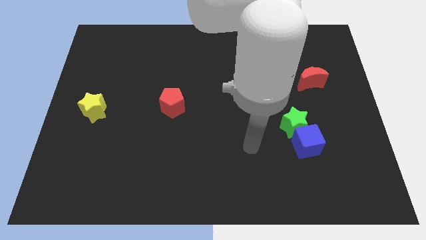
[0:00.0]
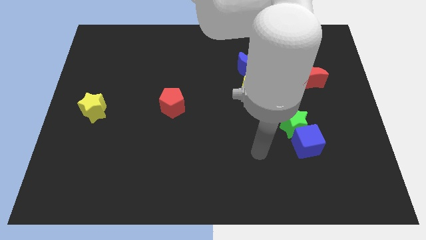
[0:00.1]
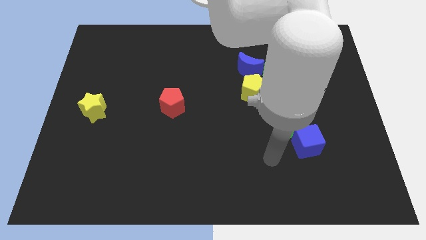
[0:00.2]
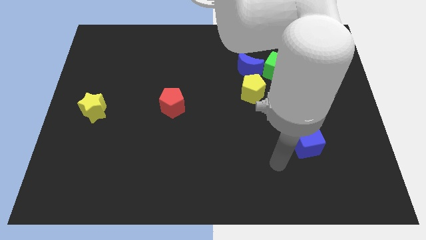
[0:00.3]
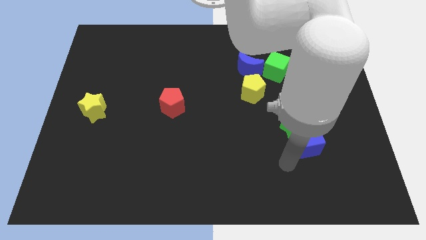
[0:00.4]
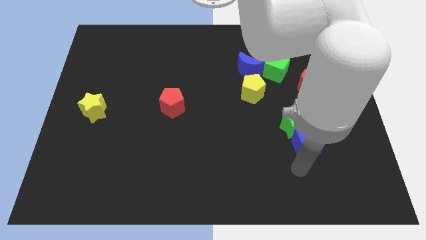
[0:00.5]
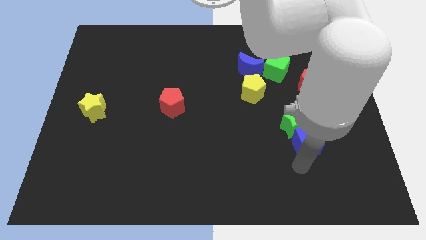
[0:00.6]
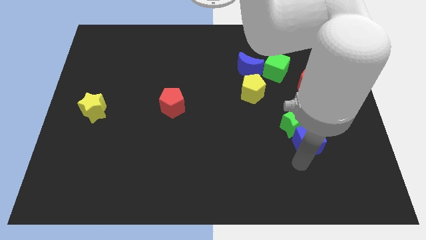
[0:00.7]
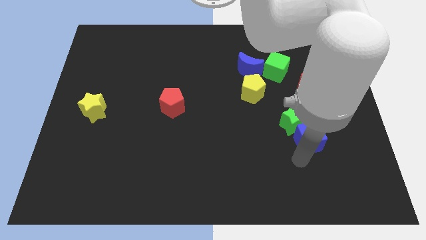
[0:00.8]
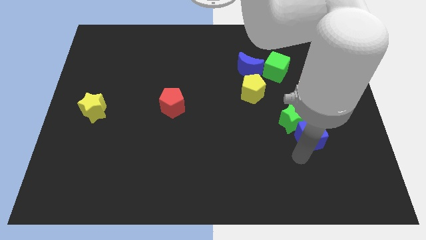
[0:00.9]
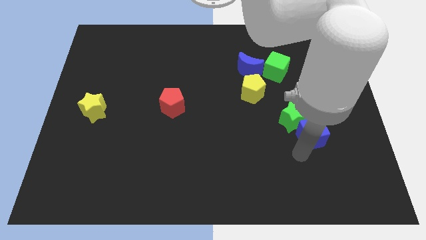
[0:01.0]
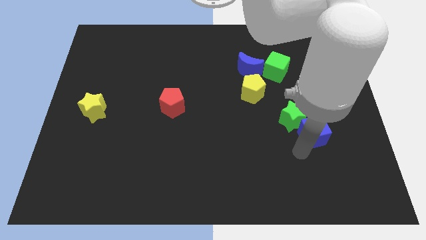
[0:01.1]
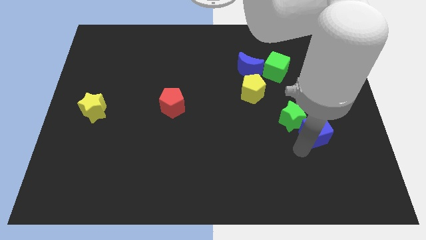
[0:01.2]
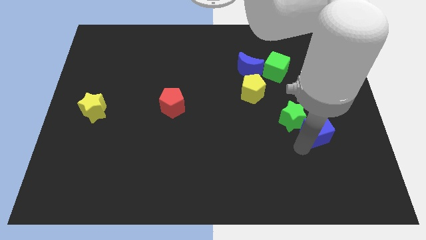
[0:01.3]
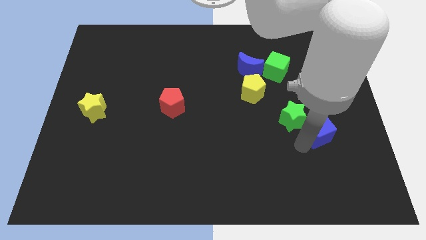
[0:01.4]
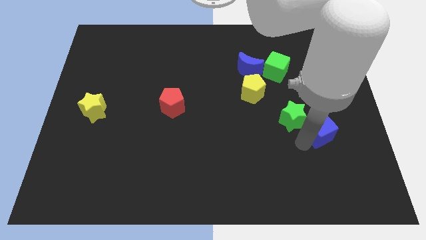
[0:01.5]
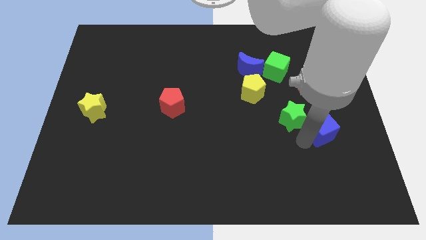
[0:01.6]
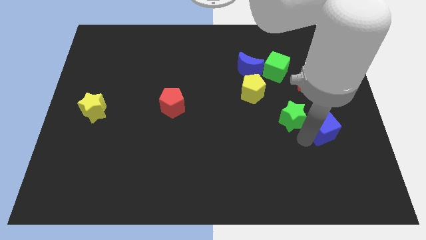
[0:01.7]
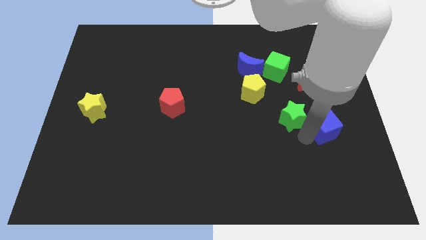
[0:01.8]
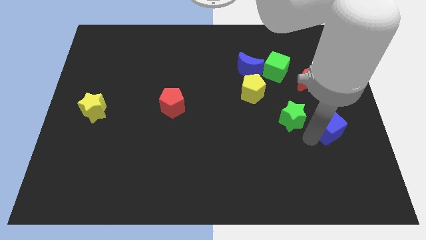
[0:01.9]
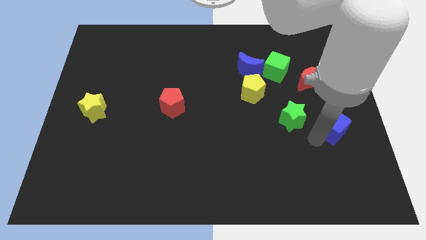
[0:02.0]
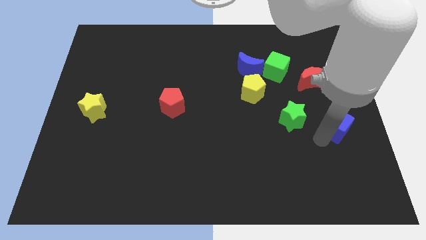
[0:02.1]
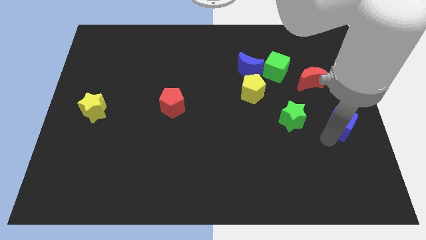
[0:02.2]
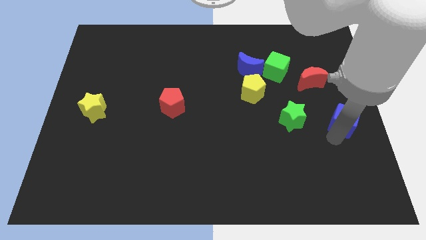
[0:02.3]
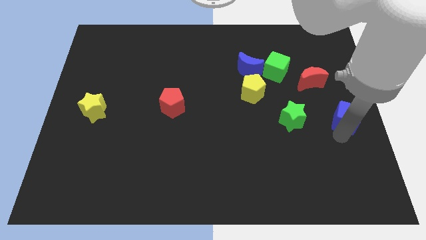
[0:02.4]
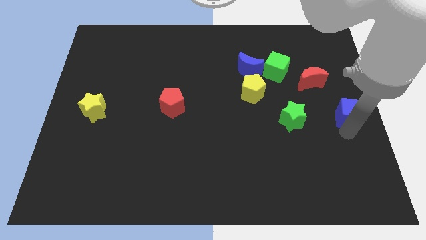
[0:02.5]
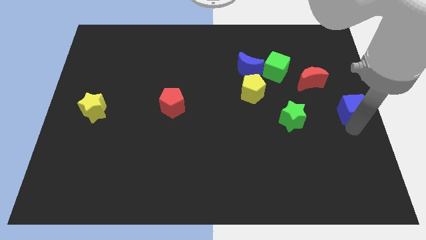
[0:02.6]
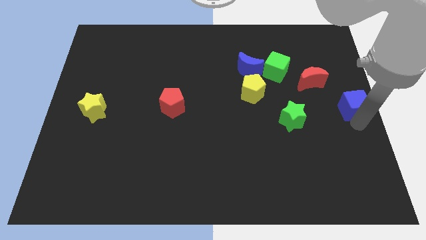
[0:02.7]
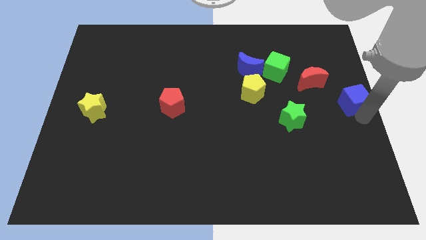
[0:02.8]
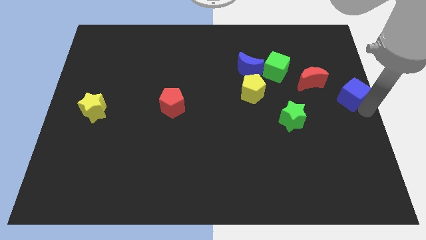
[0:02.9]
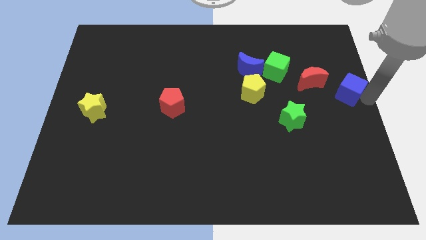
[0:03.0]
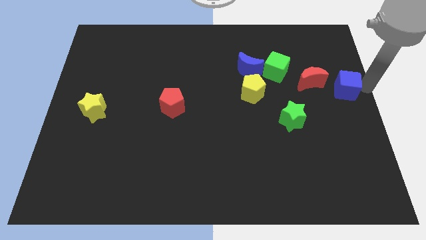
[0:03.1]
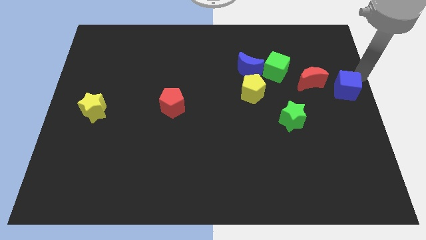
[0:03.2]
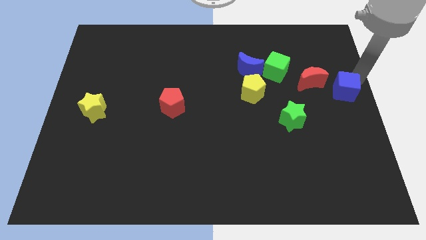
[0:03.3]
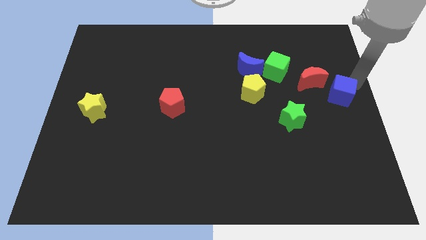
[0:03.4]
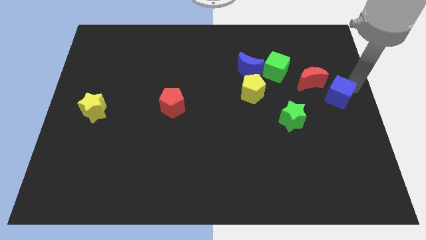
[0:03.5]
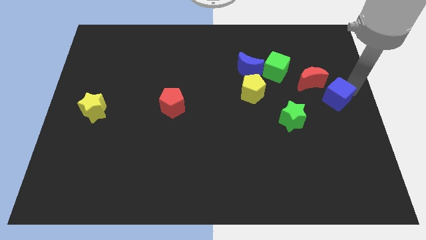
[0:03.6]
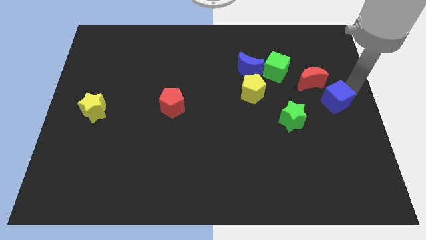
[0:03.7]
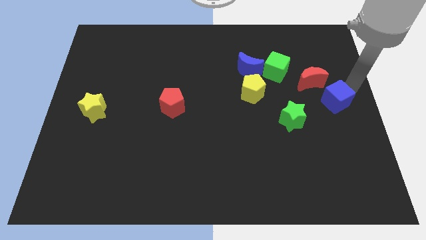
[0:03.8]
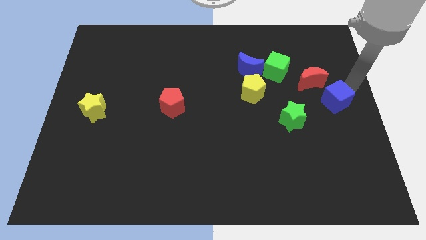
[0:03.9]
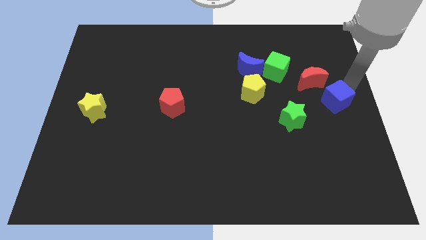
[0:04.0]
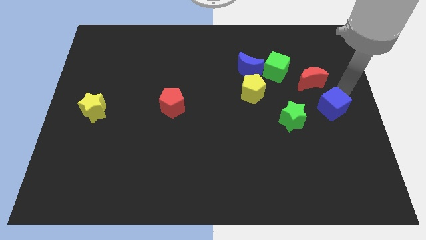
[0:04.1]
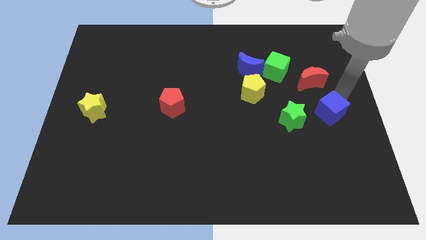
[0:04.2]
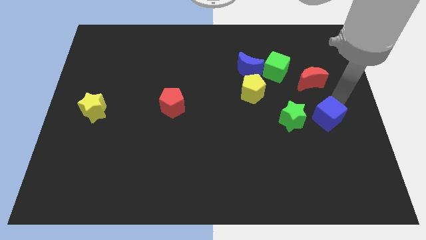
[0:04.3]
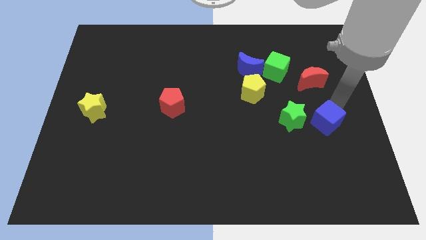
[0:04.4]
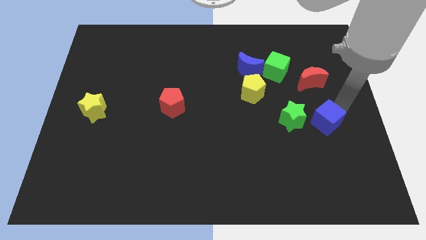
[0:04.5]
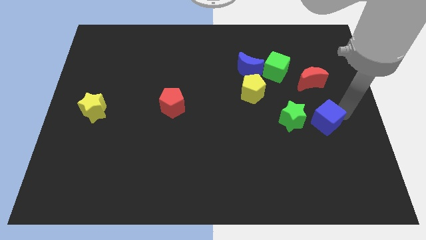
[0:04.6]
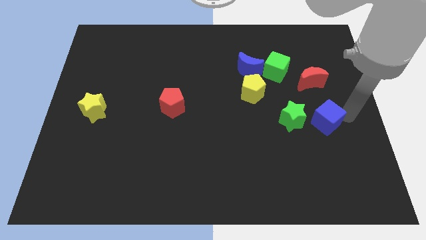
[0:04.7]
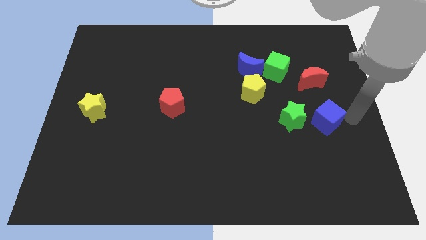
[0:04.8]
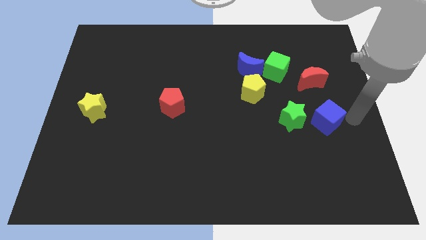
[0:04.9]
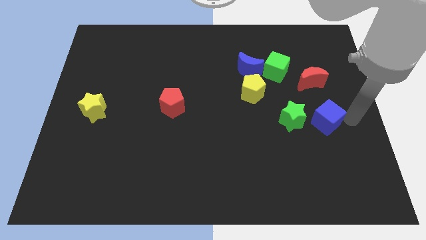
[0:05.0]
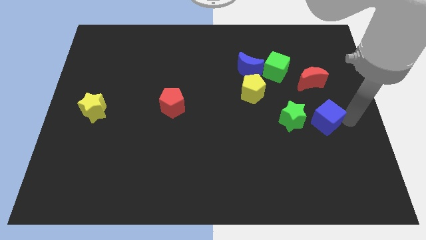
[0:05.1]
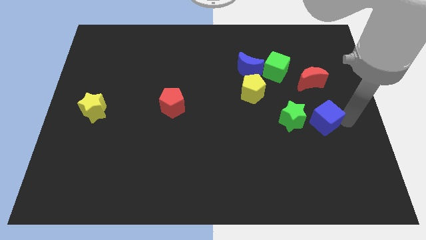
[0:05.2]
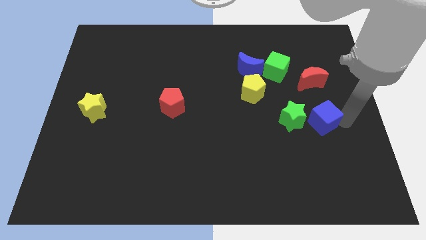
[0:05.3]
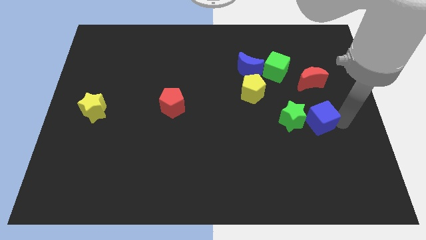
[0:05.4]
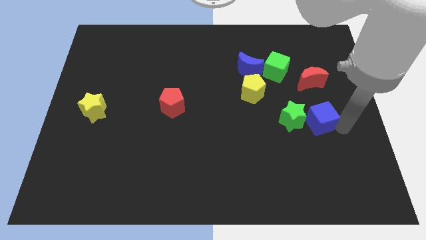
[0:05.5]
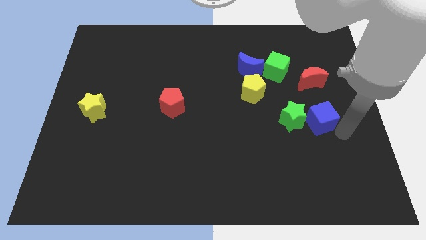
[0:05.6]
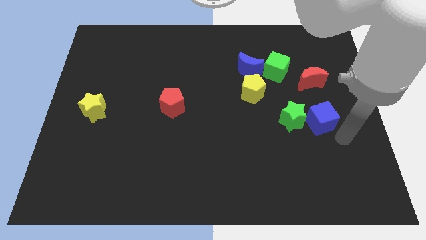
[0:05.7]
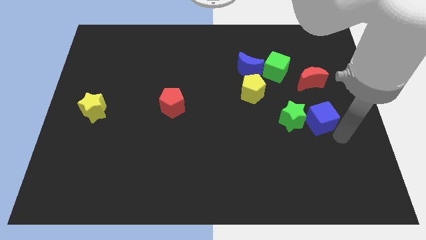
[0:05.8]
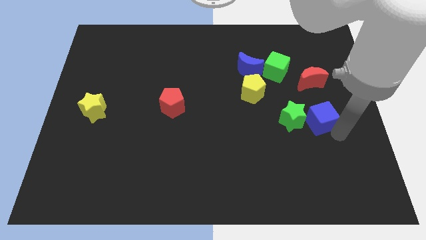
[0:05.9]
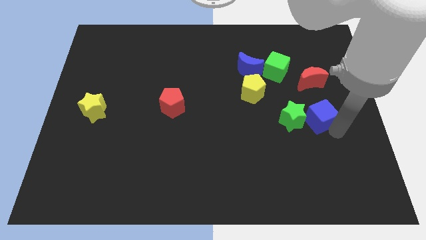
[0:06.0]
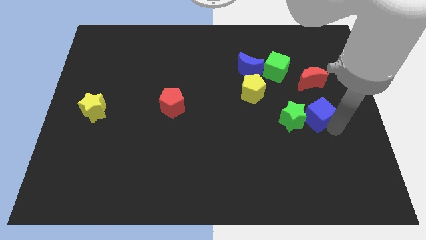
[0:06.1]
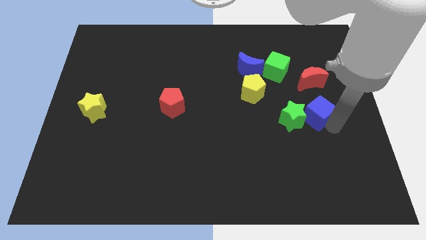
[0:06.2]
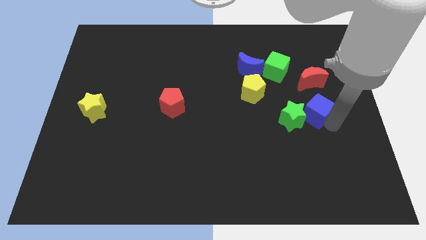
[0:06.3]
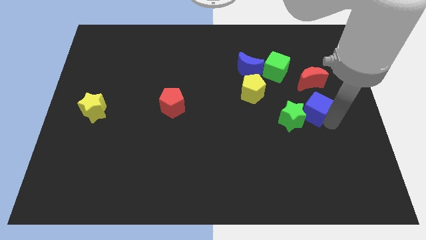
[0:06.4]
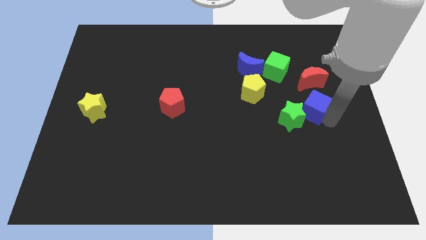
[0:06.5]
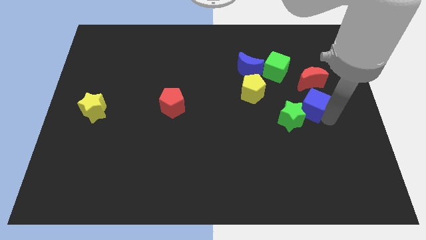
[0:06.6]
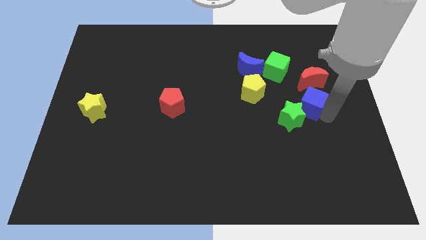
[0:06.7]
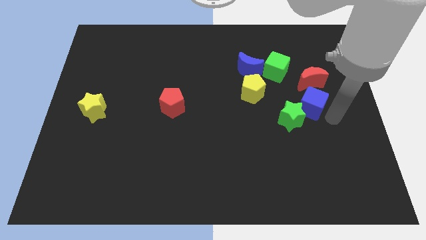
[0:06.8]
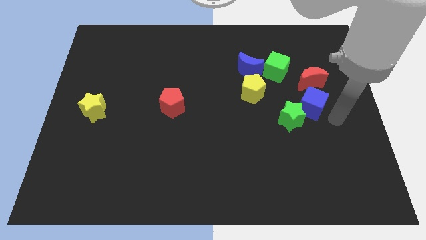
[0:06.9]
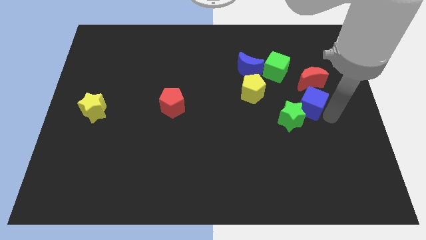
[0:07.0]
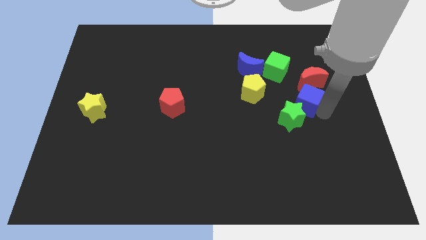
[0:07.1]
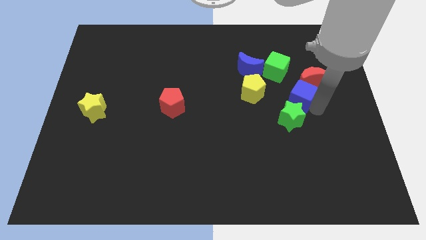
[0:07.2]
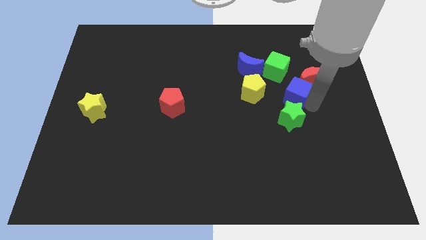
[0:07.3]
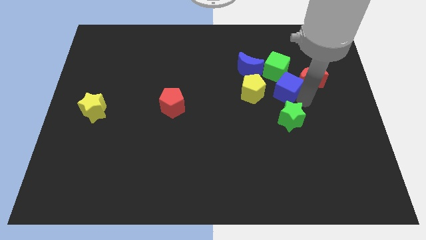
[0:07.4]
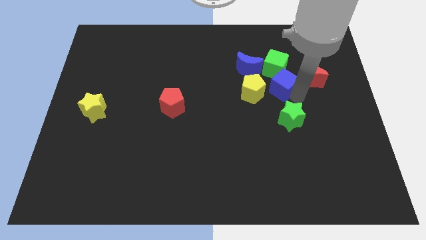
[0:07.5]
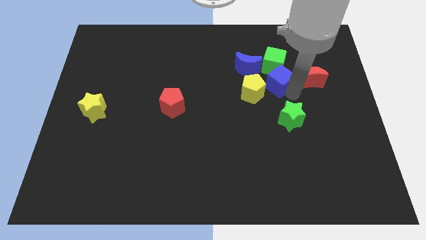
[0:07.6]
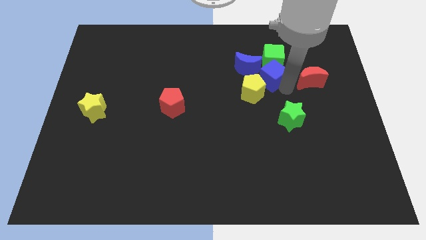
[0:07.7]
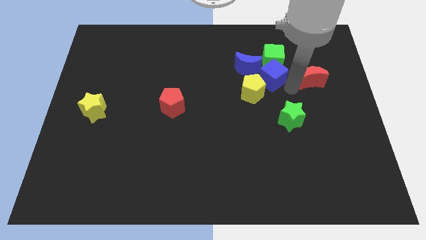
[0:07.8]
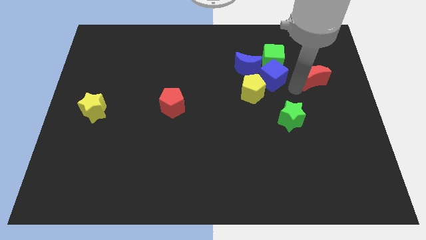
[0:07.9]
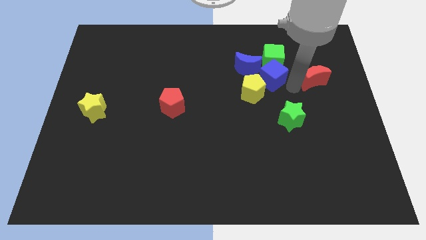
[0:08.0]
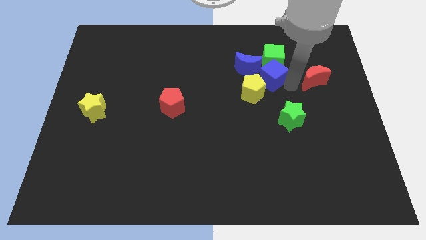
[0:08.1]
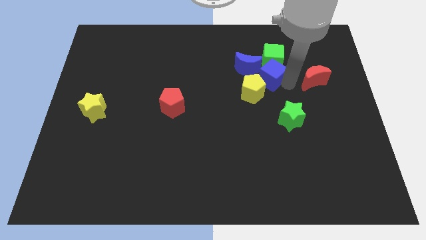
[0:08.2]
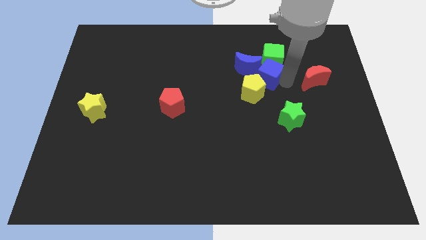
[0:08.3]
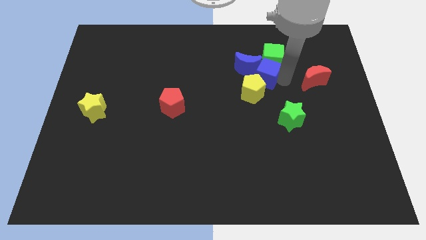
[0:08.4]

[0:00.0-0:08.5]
slide the blue cube next to the blue moon
